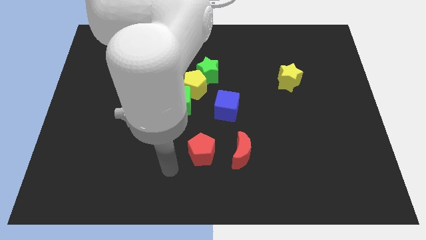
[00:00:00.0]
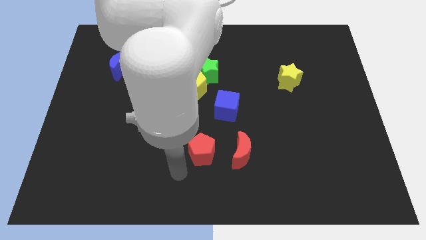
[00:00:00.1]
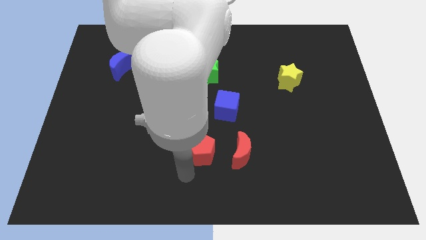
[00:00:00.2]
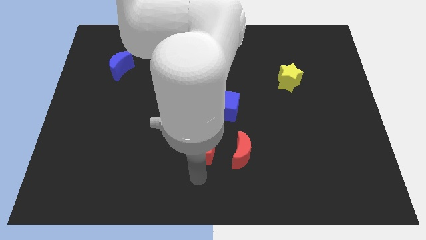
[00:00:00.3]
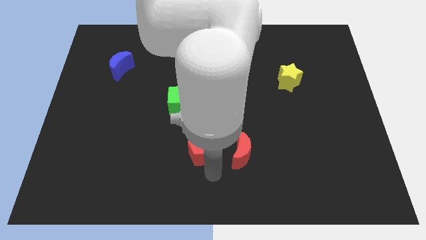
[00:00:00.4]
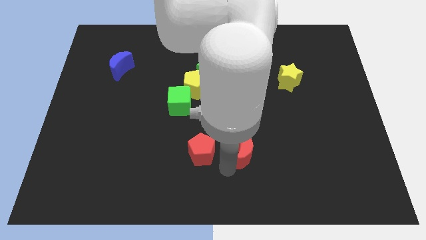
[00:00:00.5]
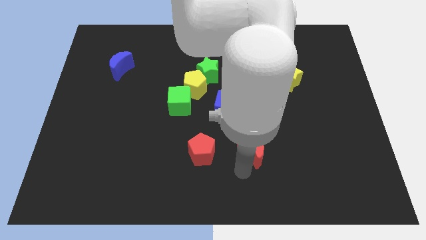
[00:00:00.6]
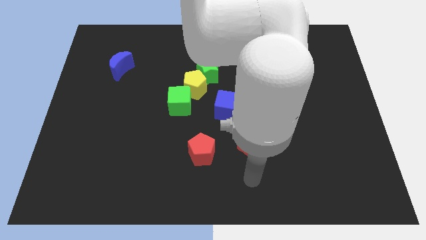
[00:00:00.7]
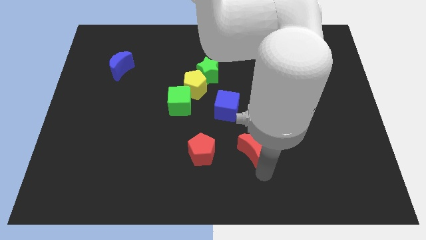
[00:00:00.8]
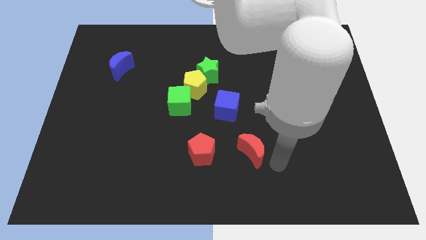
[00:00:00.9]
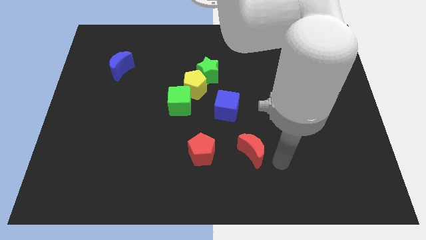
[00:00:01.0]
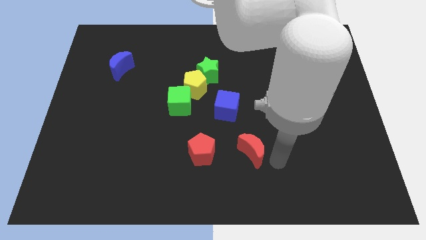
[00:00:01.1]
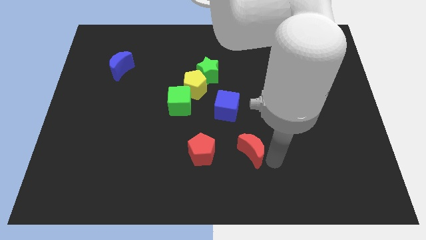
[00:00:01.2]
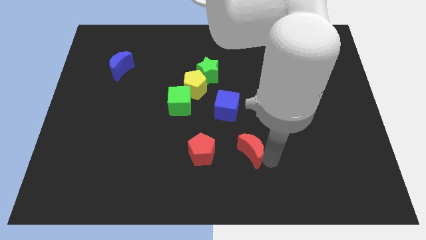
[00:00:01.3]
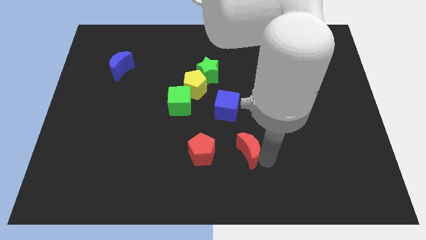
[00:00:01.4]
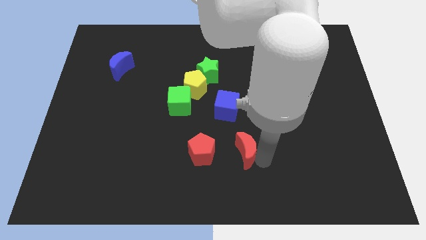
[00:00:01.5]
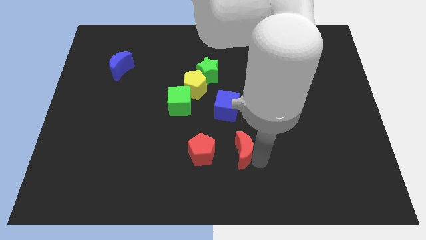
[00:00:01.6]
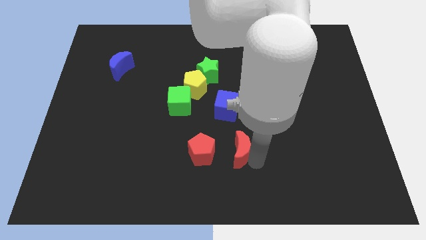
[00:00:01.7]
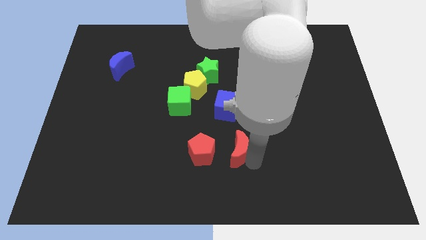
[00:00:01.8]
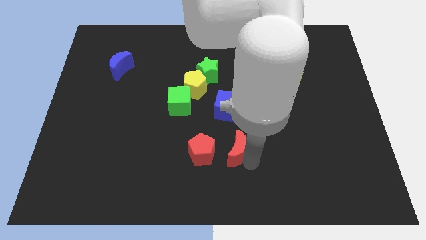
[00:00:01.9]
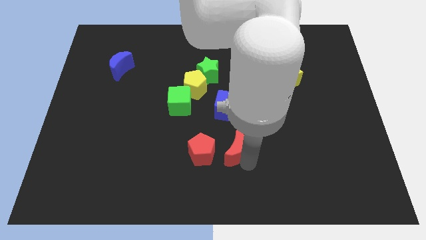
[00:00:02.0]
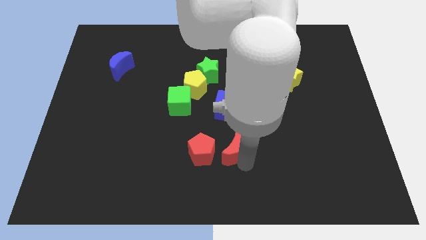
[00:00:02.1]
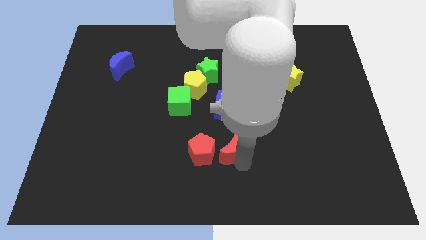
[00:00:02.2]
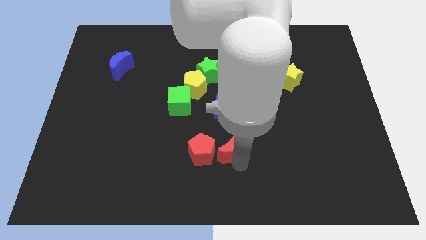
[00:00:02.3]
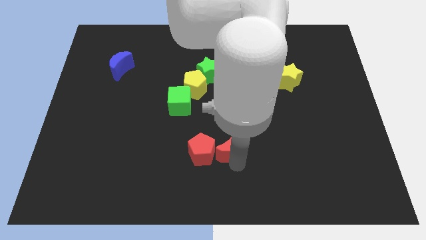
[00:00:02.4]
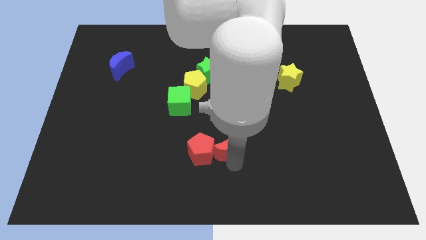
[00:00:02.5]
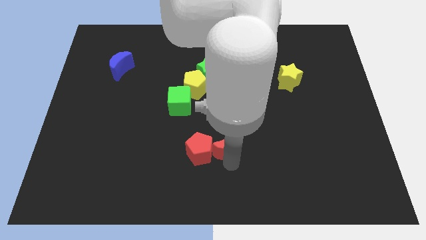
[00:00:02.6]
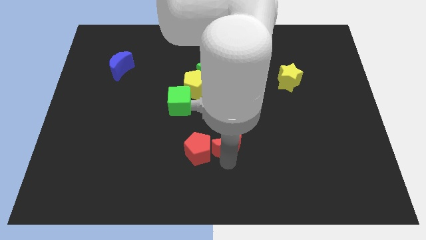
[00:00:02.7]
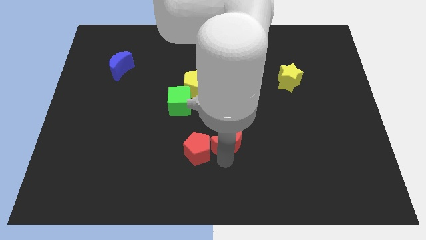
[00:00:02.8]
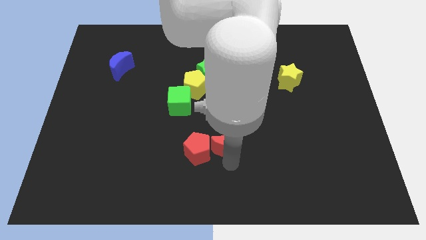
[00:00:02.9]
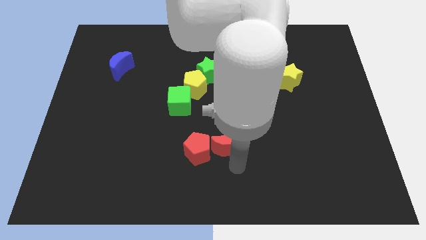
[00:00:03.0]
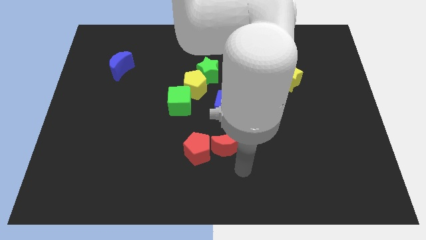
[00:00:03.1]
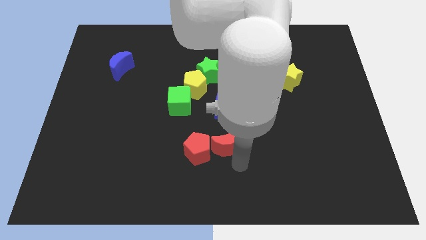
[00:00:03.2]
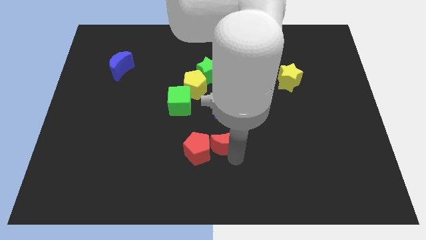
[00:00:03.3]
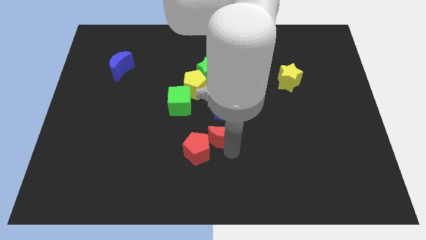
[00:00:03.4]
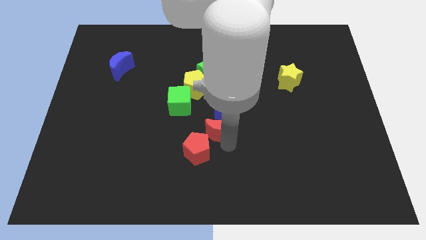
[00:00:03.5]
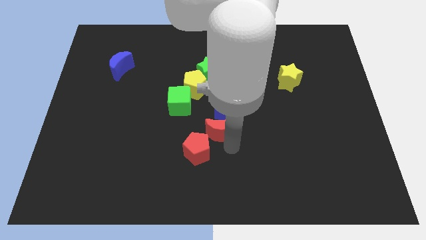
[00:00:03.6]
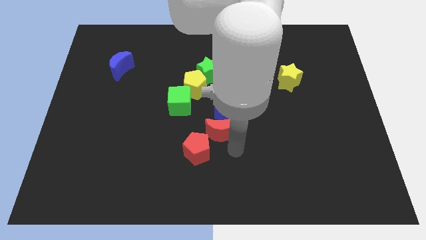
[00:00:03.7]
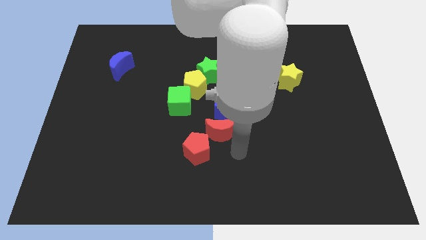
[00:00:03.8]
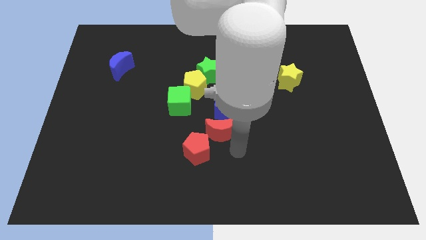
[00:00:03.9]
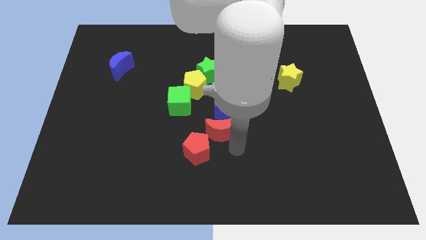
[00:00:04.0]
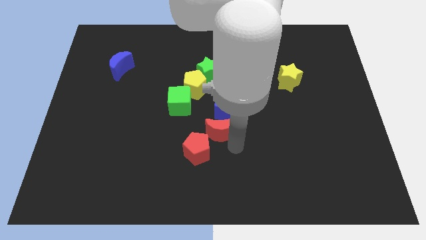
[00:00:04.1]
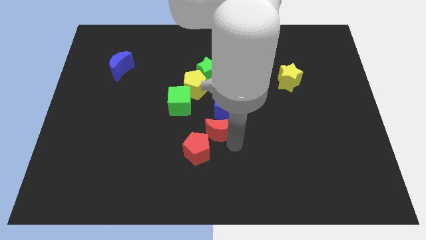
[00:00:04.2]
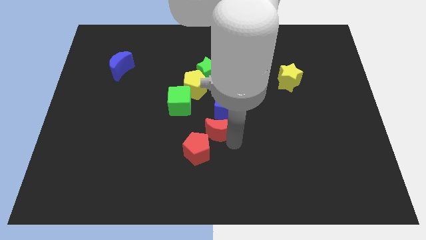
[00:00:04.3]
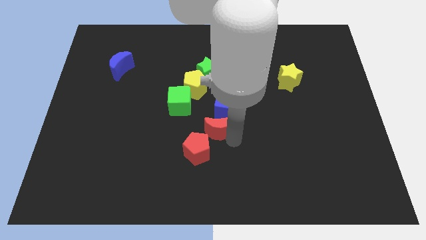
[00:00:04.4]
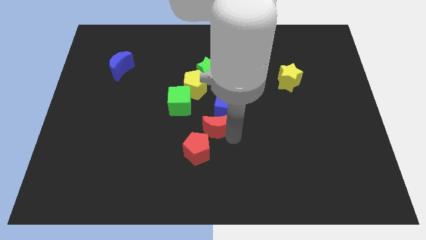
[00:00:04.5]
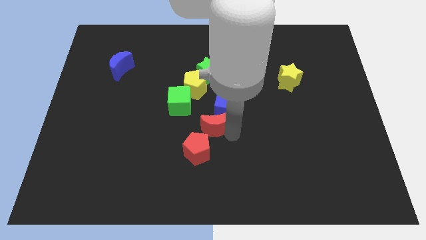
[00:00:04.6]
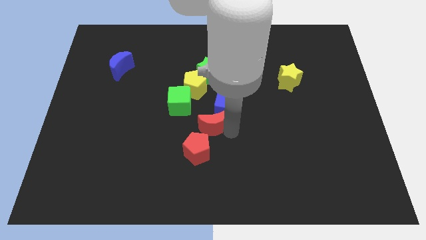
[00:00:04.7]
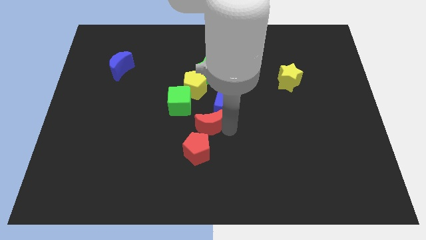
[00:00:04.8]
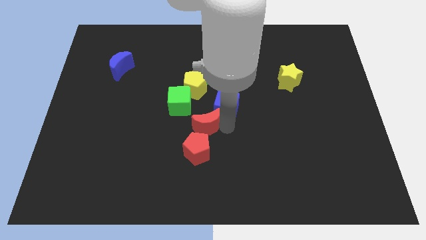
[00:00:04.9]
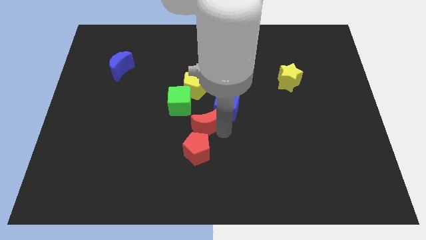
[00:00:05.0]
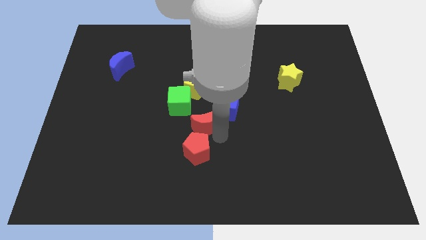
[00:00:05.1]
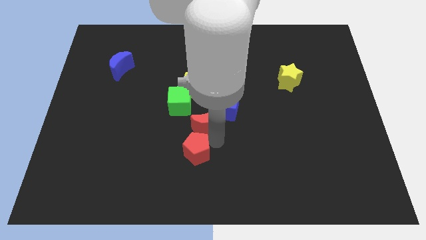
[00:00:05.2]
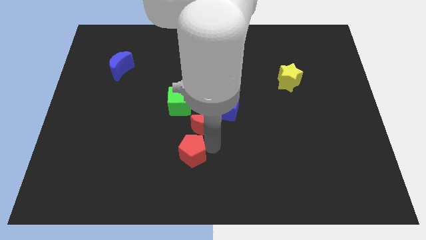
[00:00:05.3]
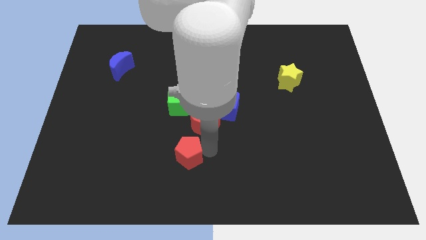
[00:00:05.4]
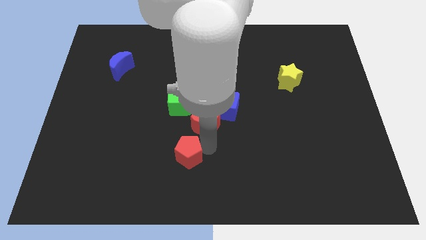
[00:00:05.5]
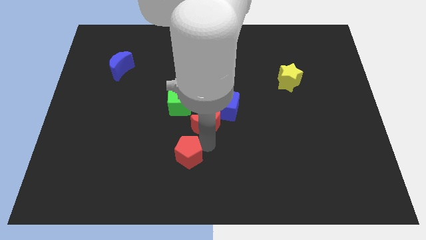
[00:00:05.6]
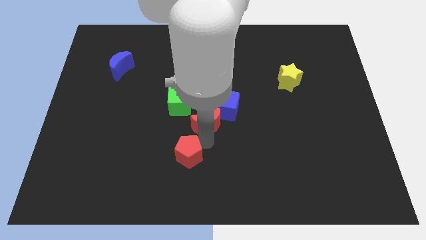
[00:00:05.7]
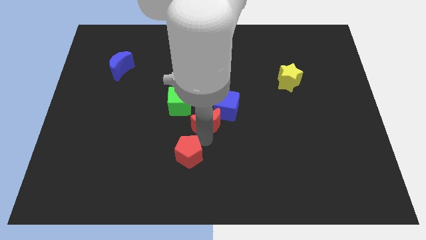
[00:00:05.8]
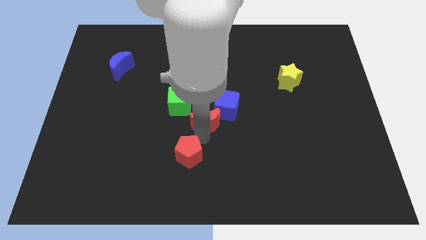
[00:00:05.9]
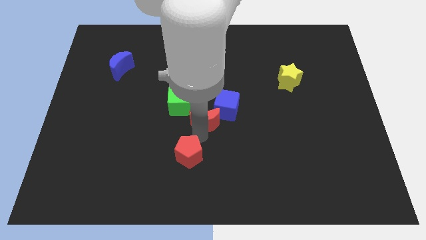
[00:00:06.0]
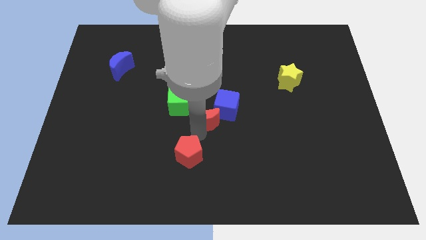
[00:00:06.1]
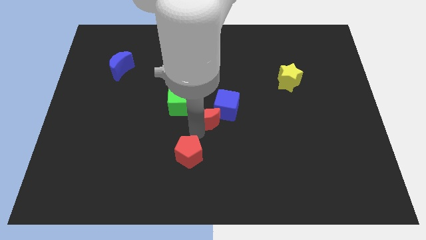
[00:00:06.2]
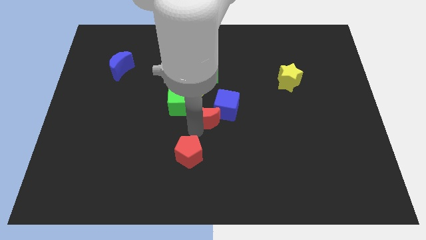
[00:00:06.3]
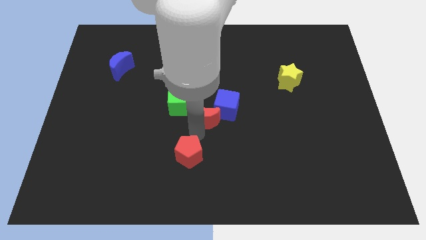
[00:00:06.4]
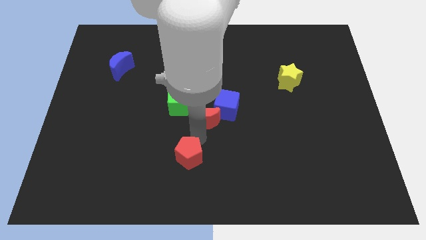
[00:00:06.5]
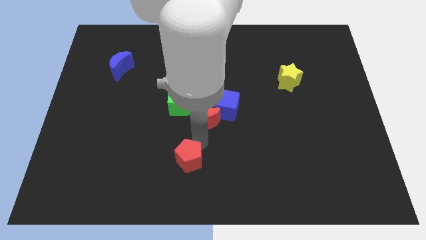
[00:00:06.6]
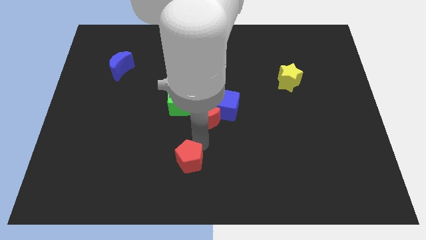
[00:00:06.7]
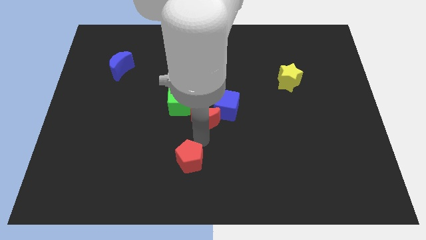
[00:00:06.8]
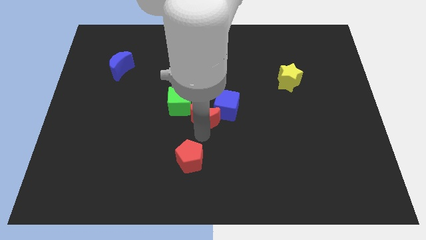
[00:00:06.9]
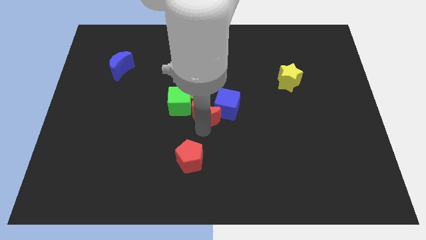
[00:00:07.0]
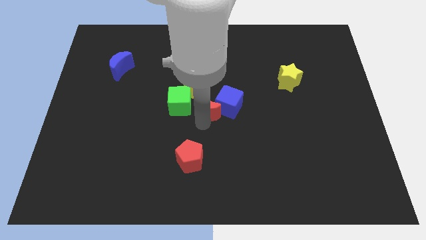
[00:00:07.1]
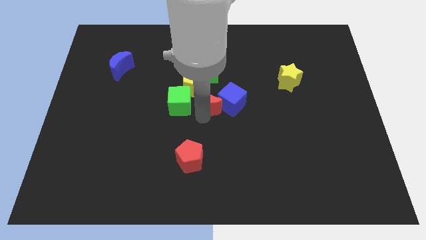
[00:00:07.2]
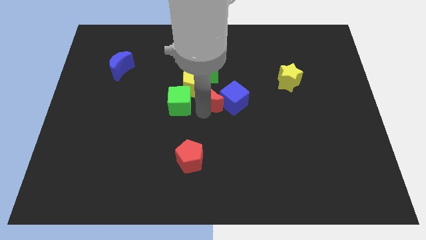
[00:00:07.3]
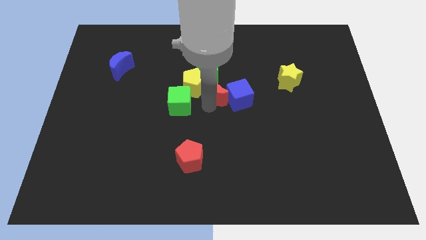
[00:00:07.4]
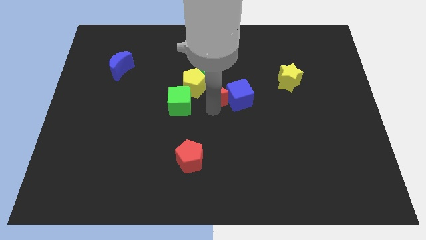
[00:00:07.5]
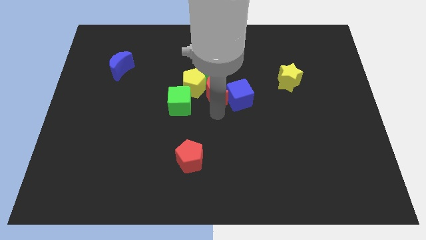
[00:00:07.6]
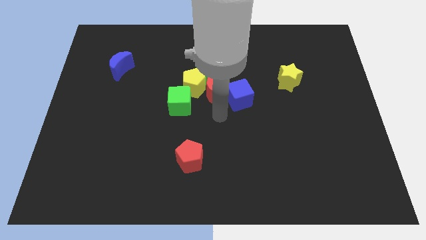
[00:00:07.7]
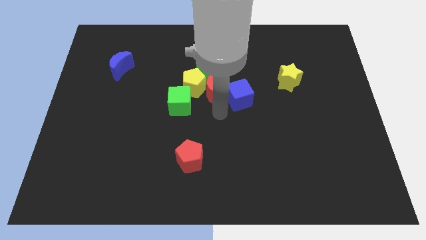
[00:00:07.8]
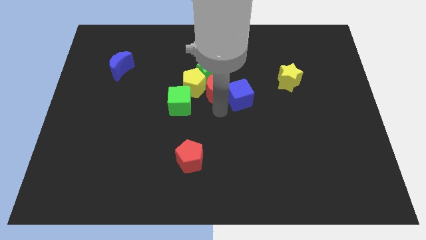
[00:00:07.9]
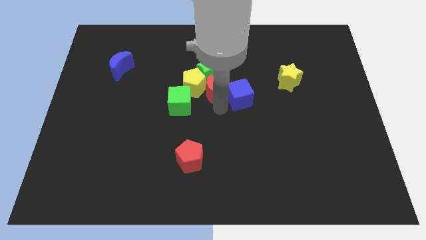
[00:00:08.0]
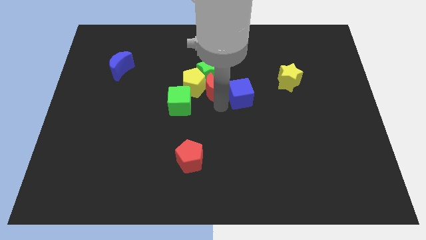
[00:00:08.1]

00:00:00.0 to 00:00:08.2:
slide the red moon towards the green star
